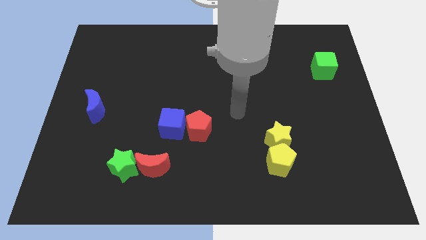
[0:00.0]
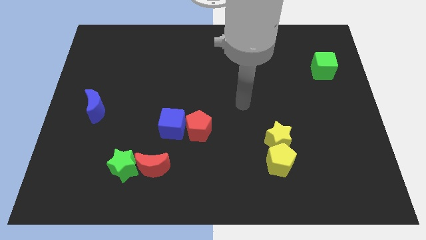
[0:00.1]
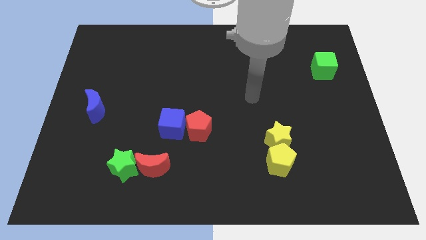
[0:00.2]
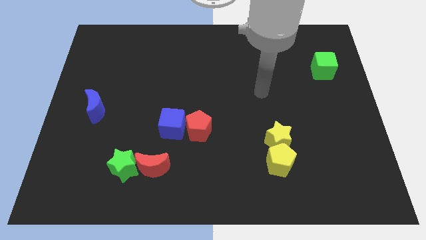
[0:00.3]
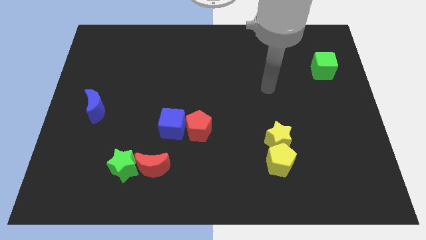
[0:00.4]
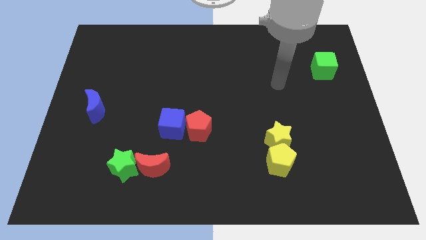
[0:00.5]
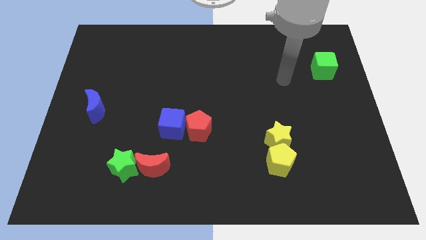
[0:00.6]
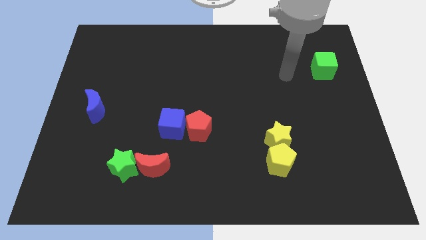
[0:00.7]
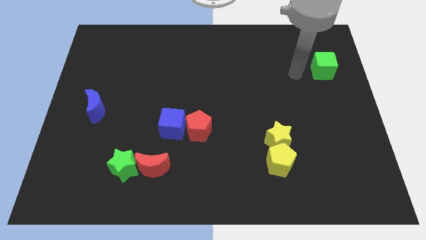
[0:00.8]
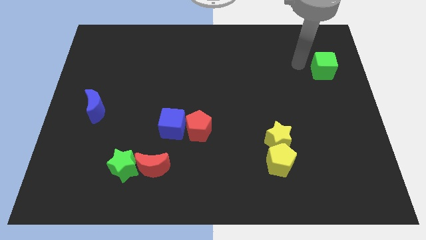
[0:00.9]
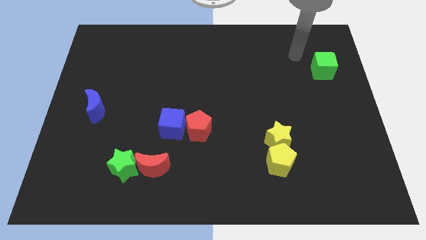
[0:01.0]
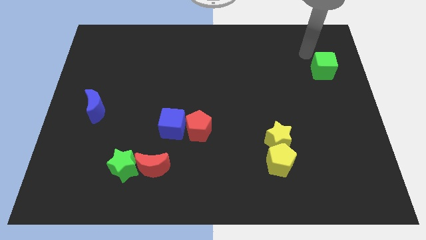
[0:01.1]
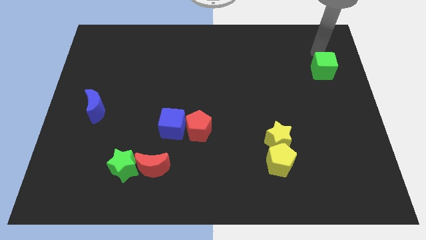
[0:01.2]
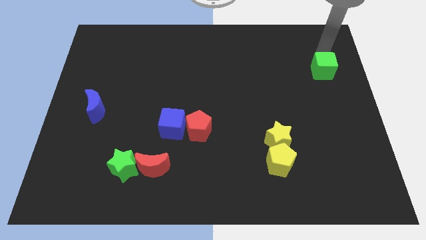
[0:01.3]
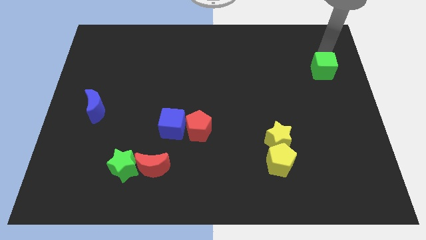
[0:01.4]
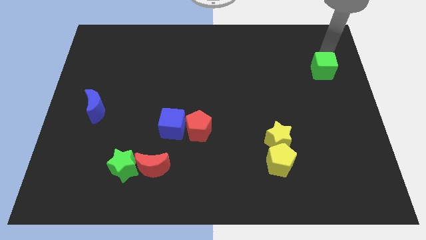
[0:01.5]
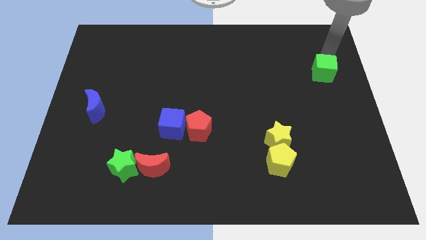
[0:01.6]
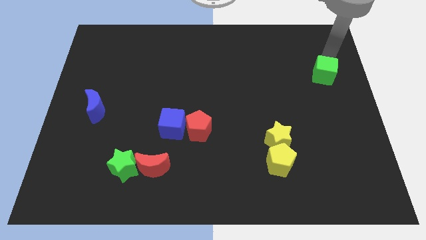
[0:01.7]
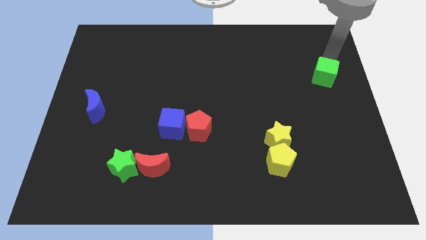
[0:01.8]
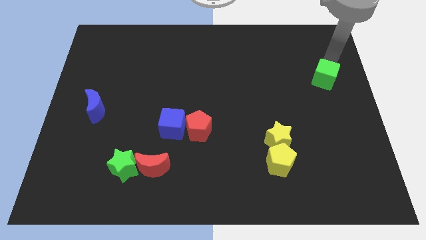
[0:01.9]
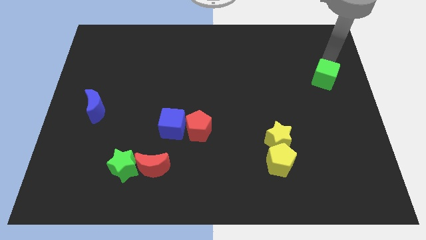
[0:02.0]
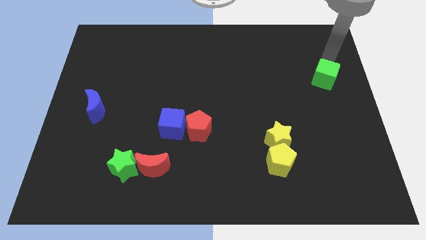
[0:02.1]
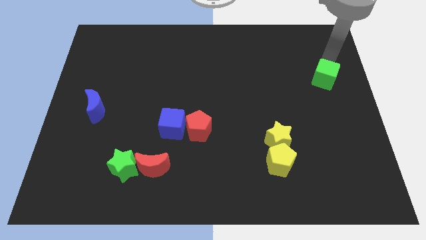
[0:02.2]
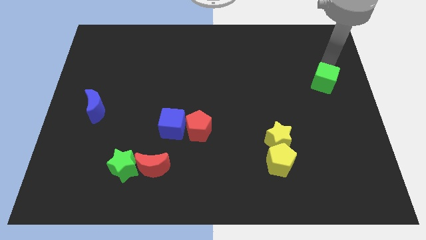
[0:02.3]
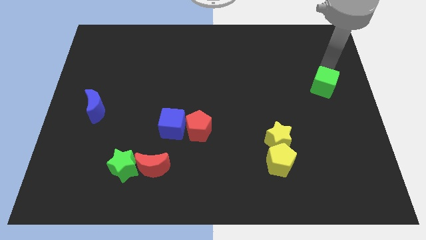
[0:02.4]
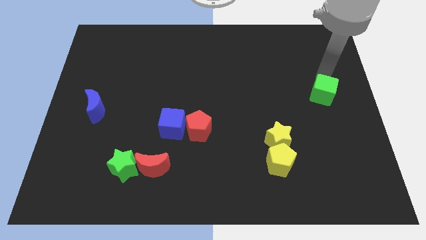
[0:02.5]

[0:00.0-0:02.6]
slide the green cube down slightly

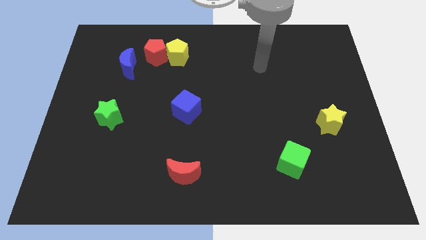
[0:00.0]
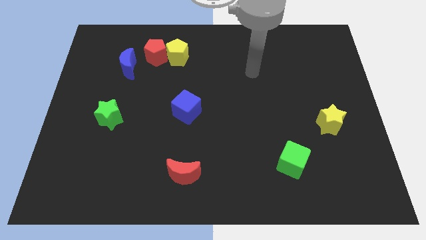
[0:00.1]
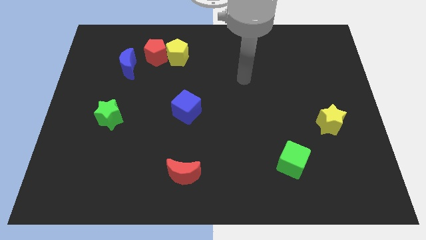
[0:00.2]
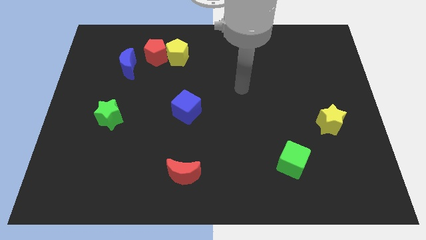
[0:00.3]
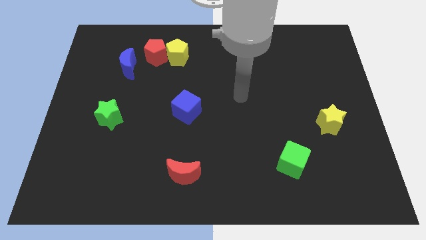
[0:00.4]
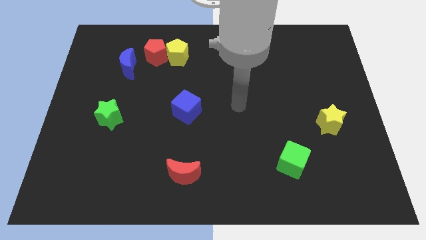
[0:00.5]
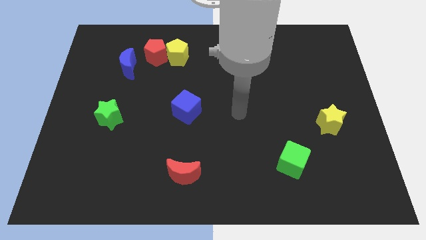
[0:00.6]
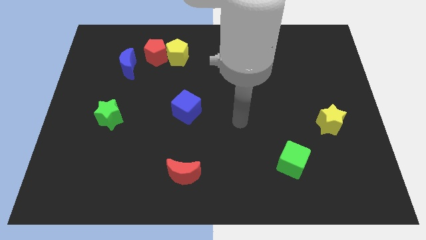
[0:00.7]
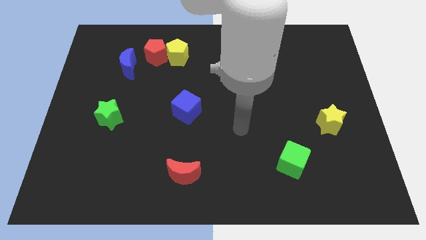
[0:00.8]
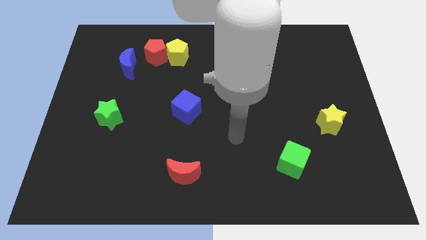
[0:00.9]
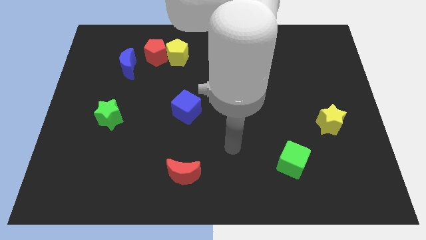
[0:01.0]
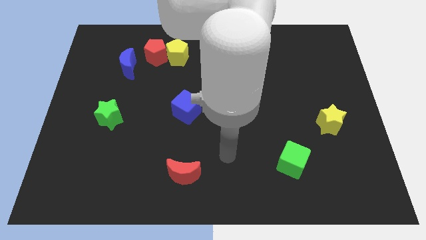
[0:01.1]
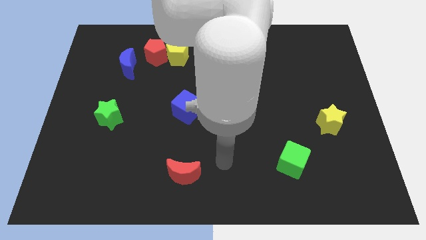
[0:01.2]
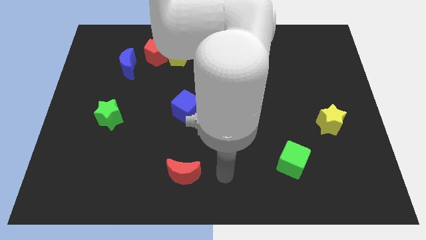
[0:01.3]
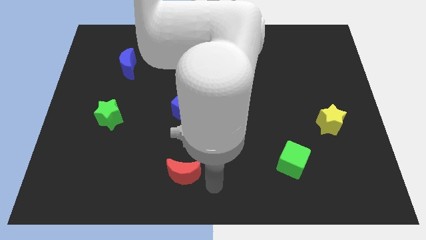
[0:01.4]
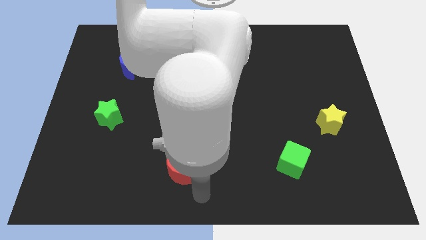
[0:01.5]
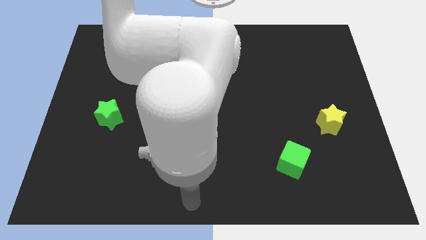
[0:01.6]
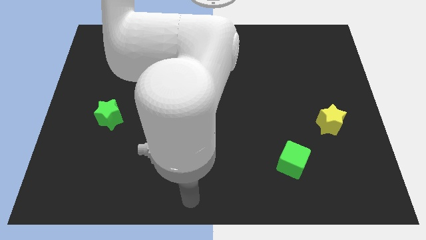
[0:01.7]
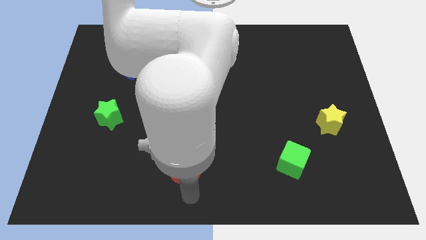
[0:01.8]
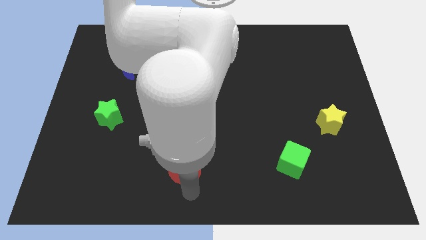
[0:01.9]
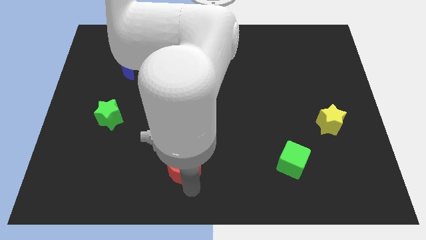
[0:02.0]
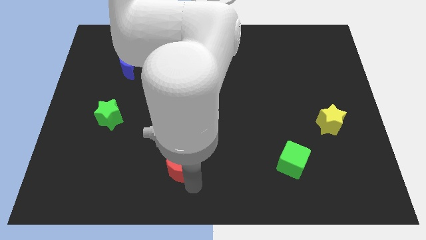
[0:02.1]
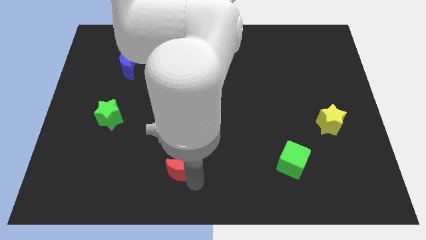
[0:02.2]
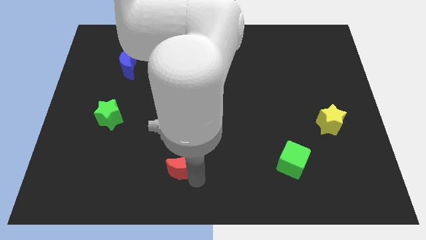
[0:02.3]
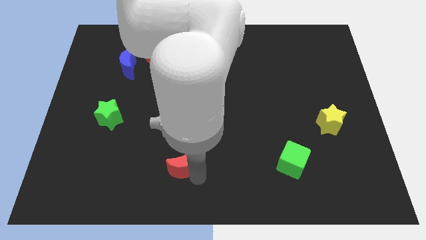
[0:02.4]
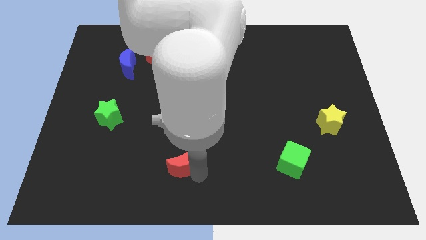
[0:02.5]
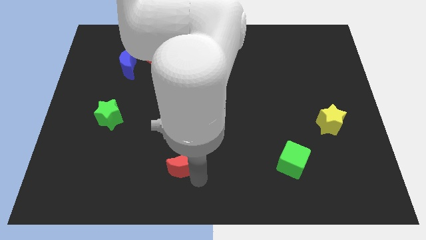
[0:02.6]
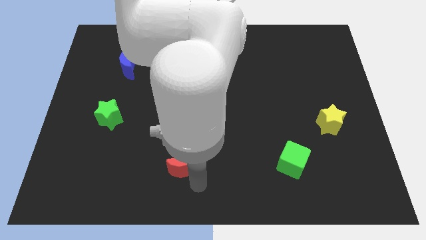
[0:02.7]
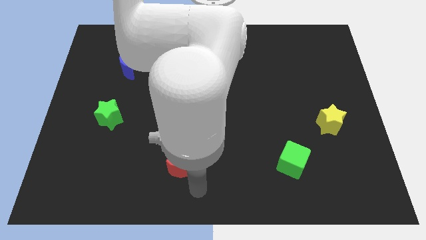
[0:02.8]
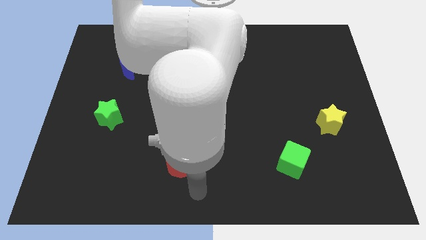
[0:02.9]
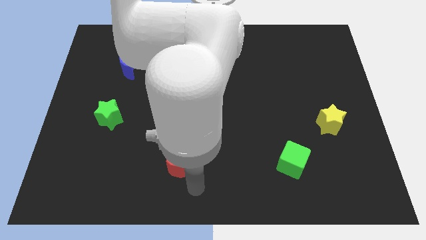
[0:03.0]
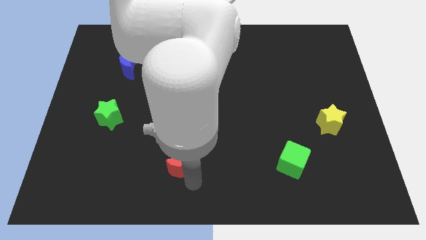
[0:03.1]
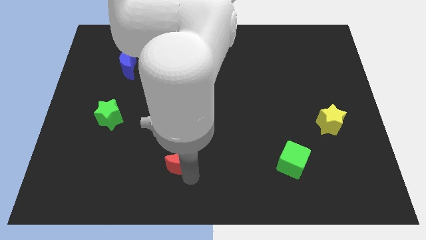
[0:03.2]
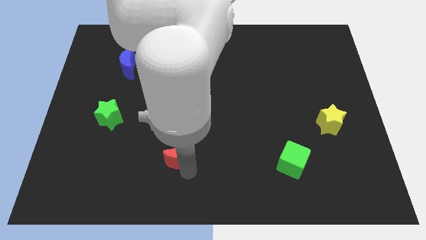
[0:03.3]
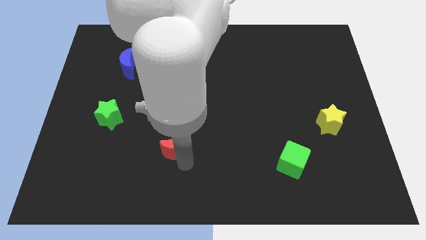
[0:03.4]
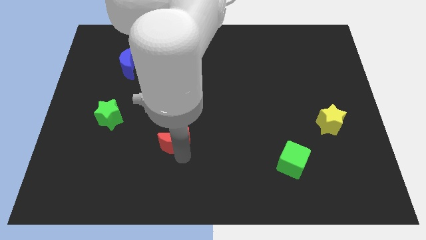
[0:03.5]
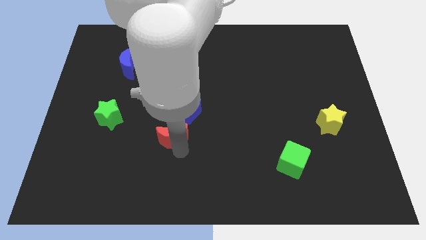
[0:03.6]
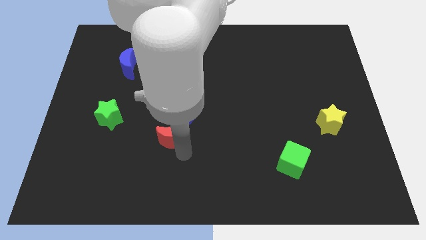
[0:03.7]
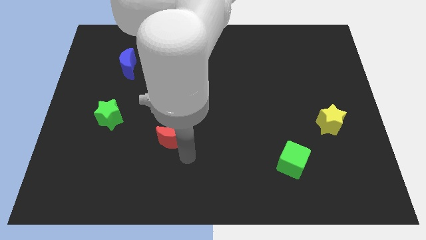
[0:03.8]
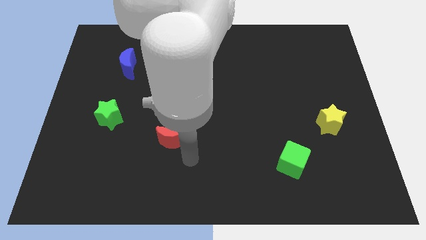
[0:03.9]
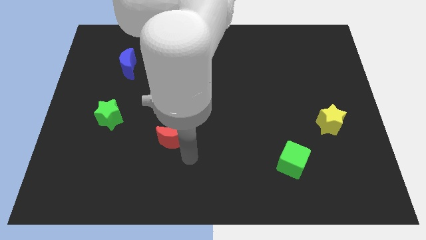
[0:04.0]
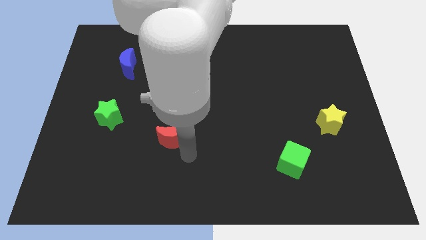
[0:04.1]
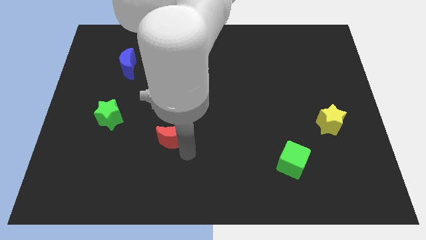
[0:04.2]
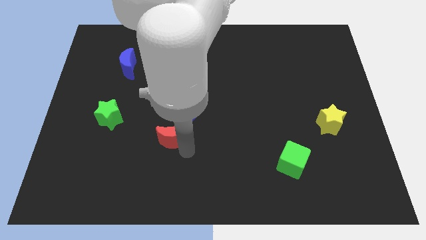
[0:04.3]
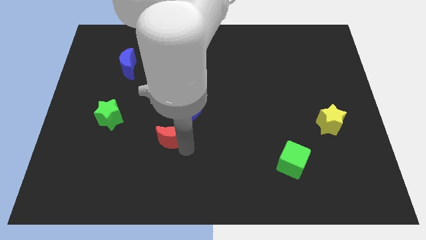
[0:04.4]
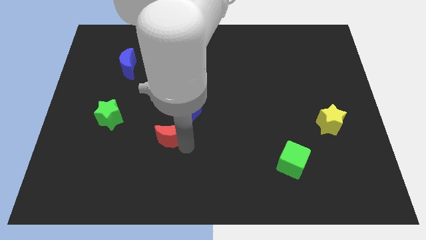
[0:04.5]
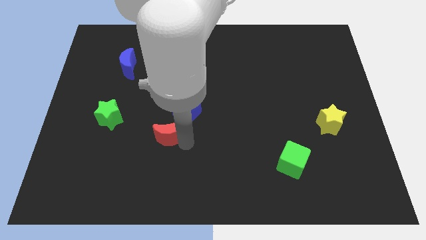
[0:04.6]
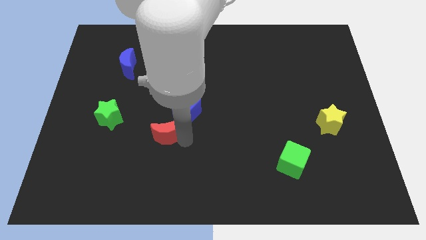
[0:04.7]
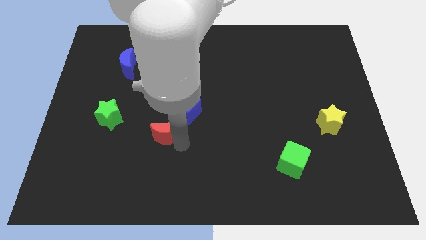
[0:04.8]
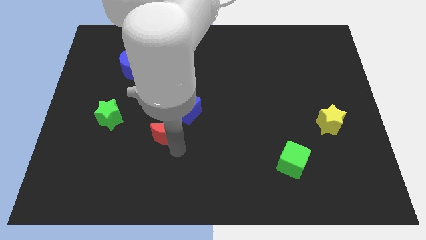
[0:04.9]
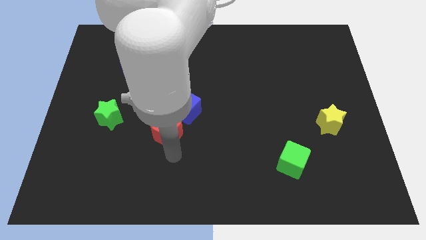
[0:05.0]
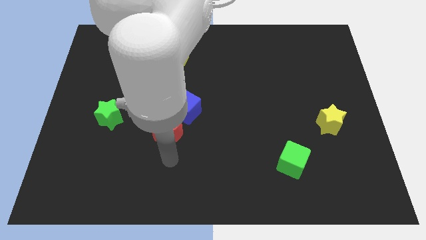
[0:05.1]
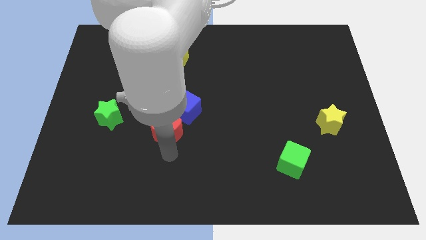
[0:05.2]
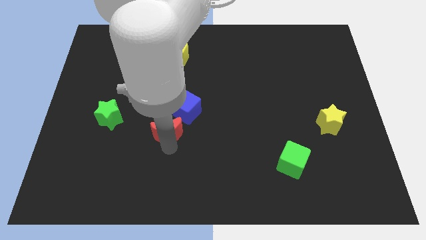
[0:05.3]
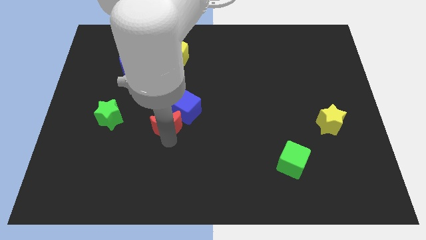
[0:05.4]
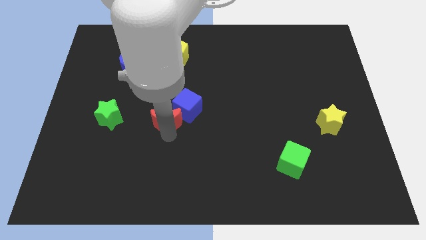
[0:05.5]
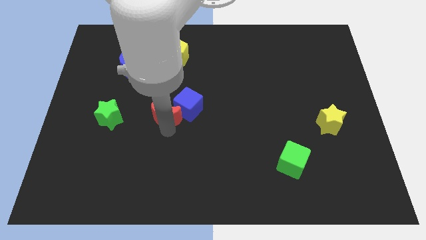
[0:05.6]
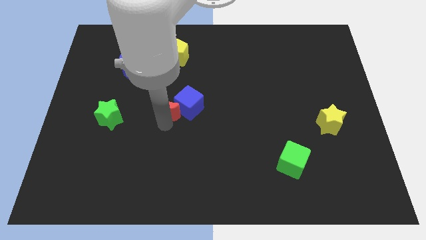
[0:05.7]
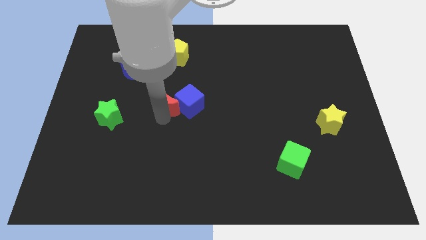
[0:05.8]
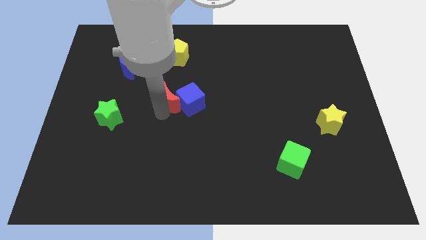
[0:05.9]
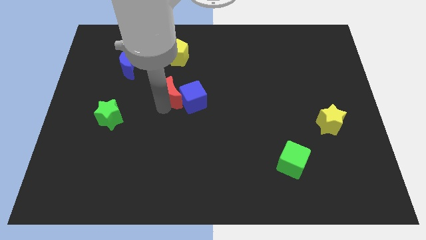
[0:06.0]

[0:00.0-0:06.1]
slide the red moon upwards
